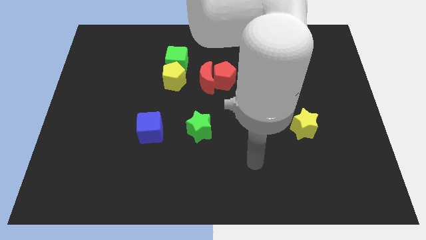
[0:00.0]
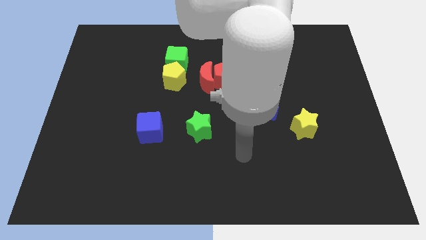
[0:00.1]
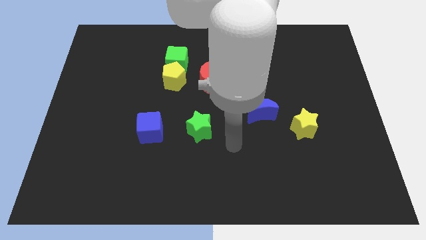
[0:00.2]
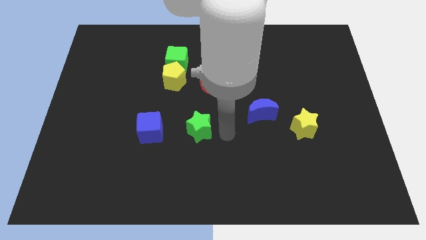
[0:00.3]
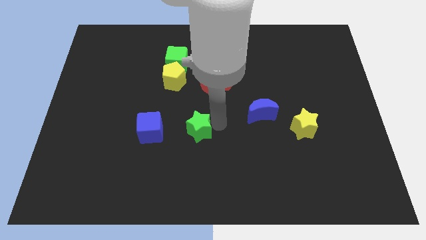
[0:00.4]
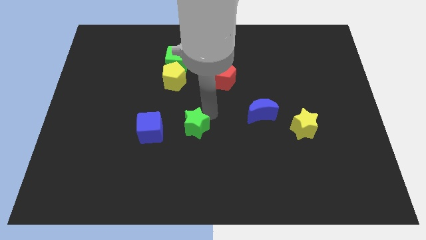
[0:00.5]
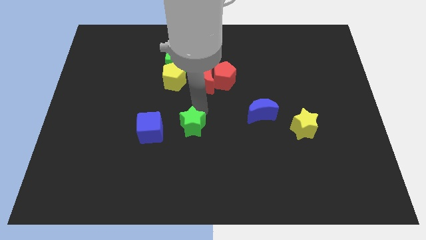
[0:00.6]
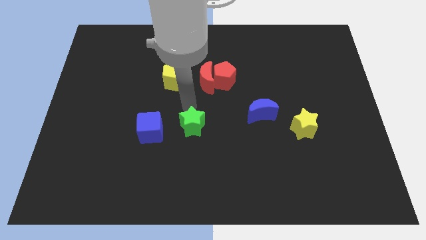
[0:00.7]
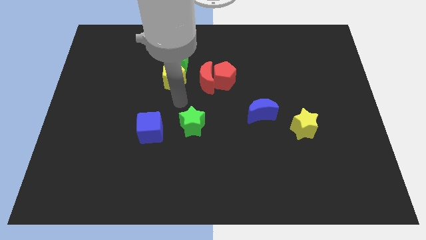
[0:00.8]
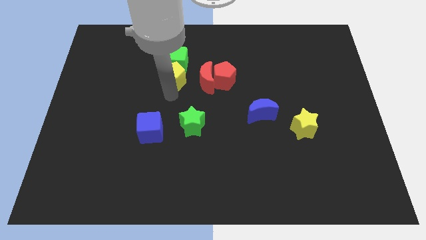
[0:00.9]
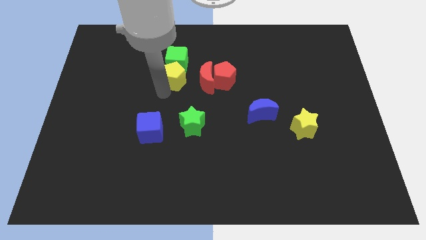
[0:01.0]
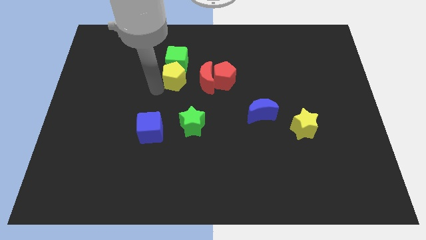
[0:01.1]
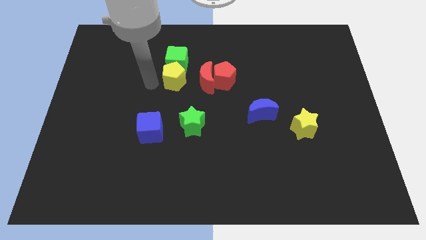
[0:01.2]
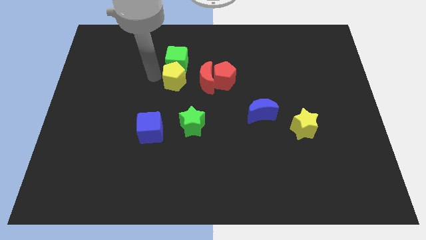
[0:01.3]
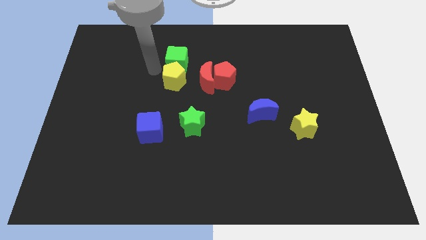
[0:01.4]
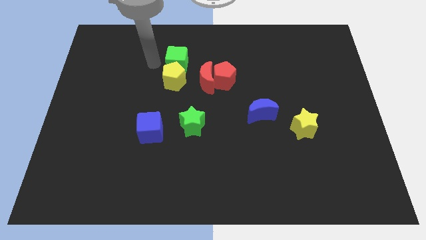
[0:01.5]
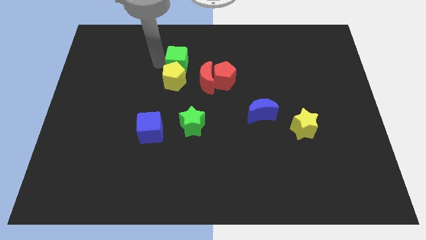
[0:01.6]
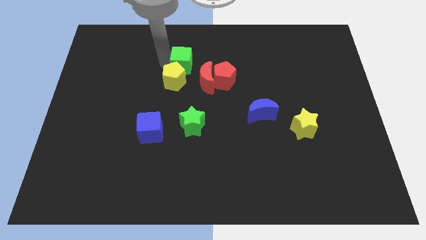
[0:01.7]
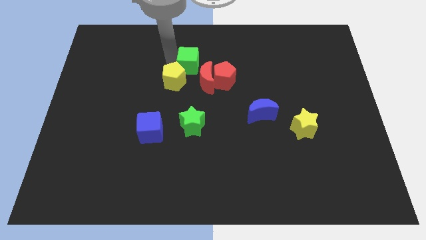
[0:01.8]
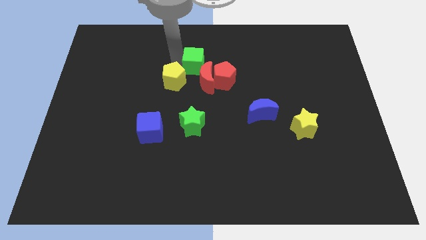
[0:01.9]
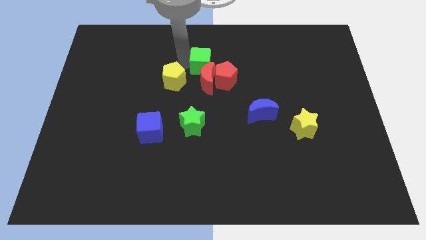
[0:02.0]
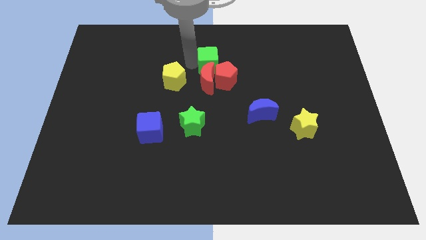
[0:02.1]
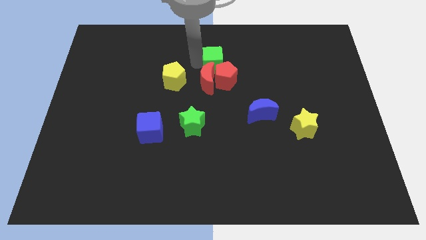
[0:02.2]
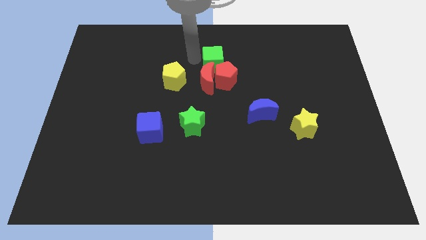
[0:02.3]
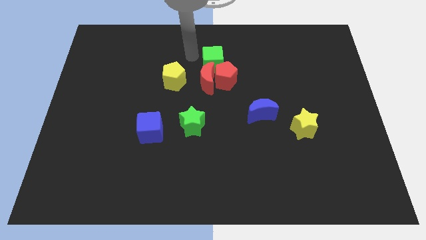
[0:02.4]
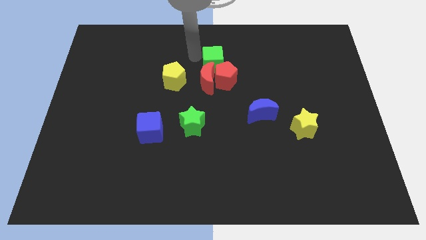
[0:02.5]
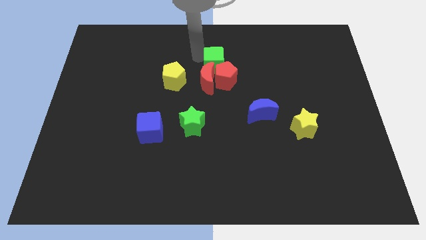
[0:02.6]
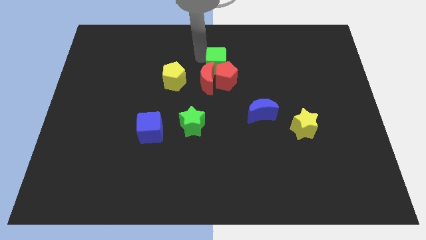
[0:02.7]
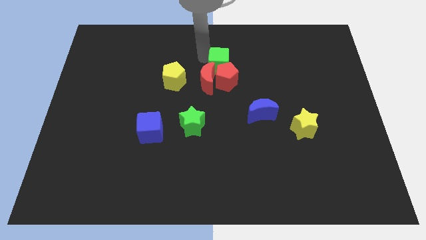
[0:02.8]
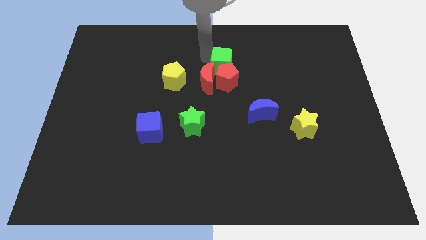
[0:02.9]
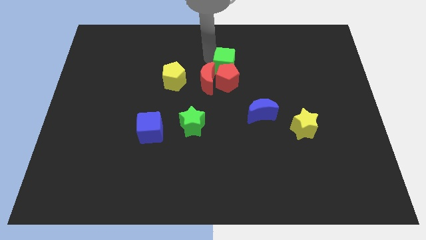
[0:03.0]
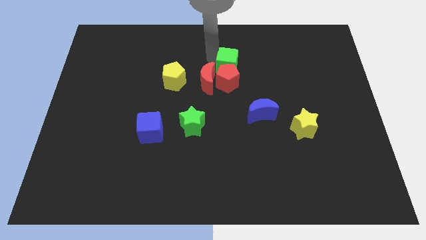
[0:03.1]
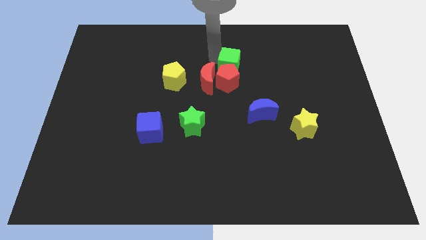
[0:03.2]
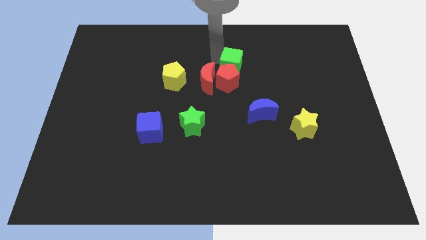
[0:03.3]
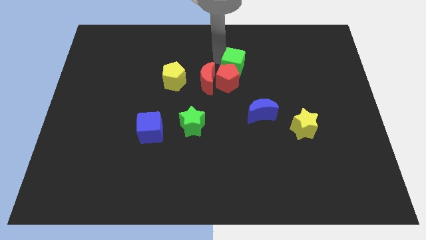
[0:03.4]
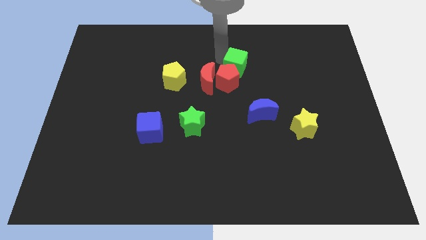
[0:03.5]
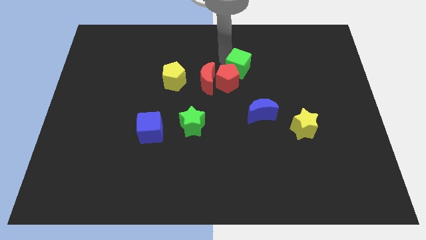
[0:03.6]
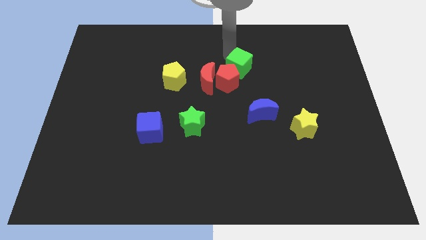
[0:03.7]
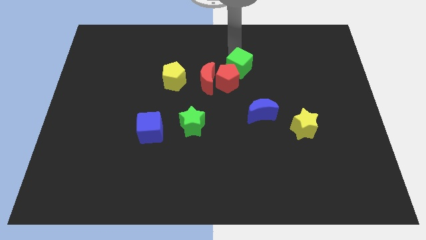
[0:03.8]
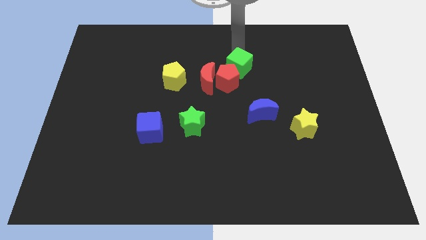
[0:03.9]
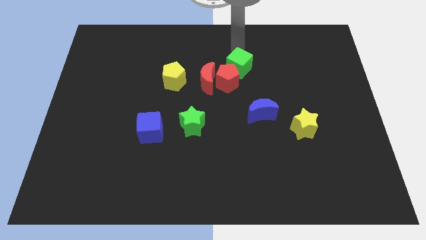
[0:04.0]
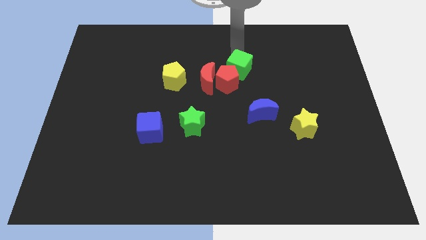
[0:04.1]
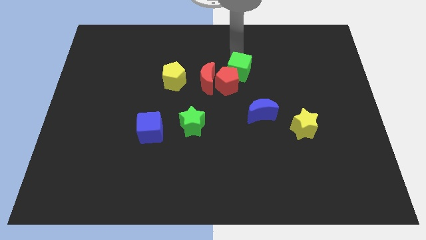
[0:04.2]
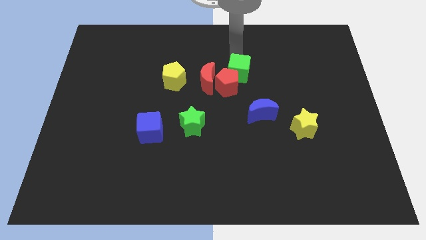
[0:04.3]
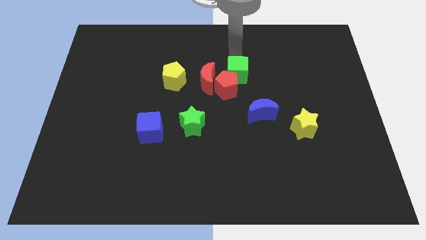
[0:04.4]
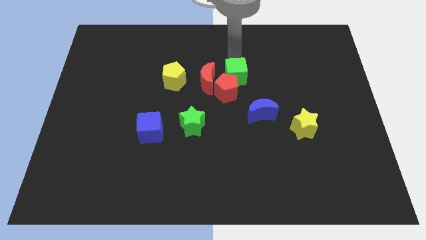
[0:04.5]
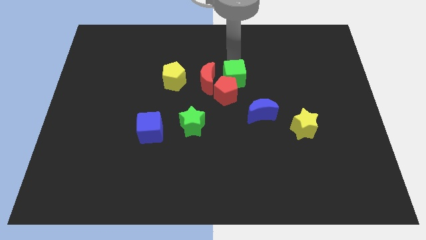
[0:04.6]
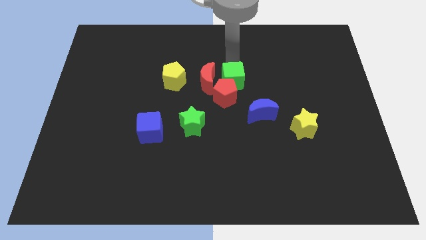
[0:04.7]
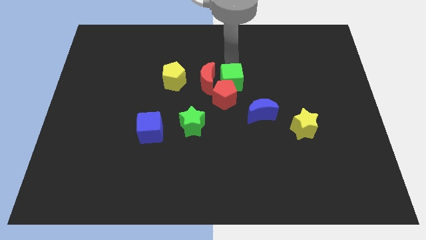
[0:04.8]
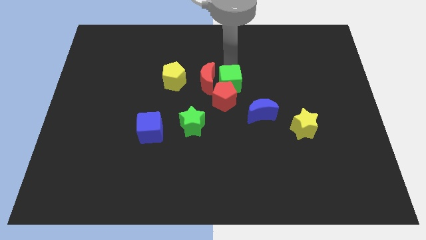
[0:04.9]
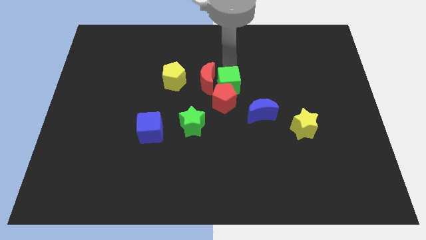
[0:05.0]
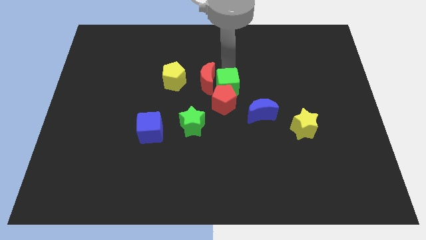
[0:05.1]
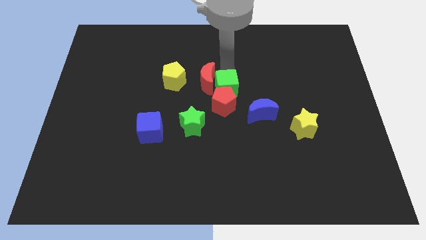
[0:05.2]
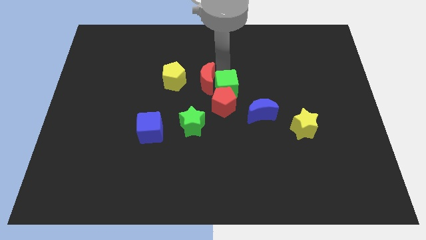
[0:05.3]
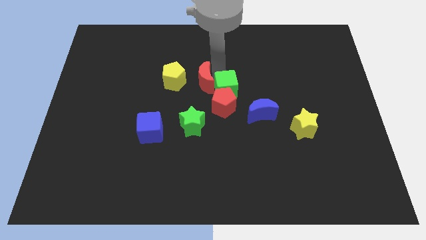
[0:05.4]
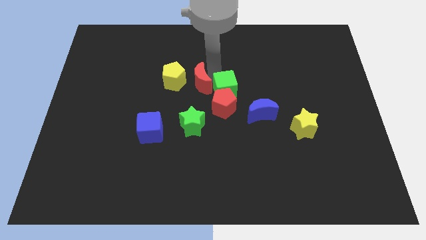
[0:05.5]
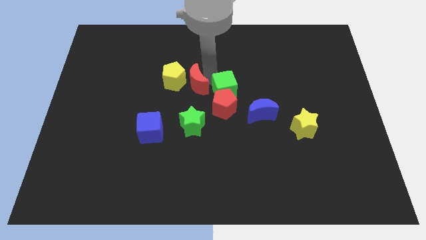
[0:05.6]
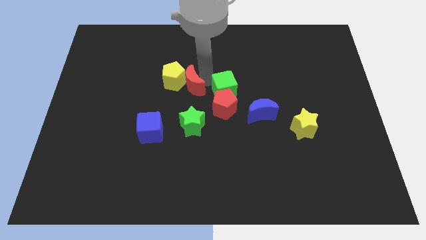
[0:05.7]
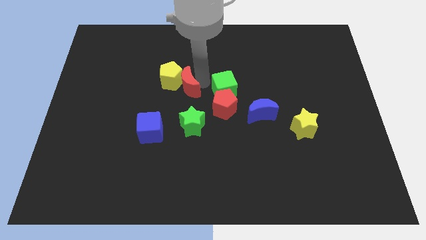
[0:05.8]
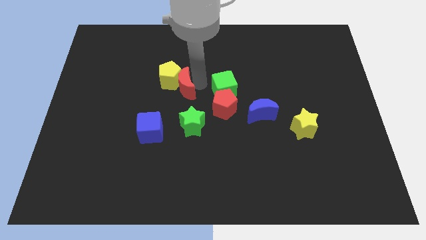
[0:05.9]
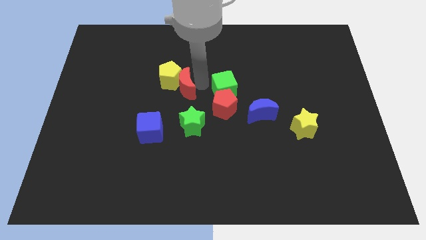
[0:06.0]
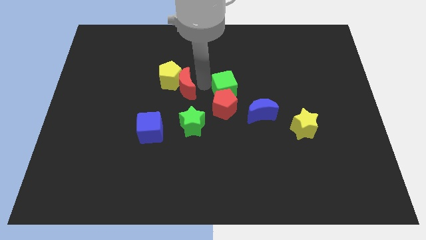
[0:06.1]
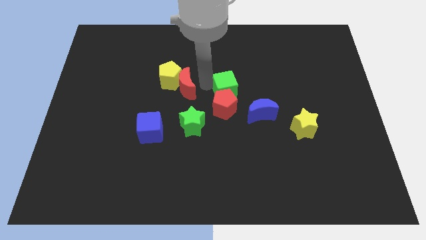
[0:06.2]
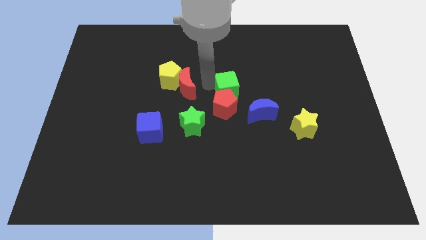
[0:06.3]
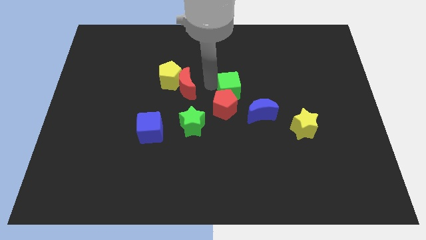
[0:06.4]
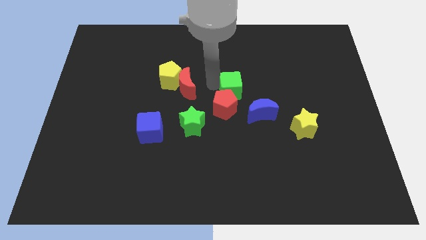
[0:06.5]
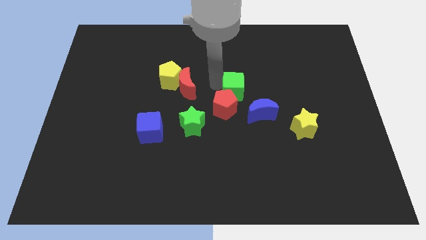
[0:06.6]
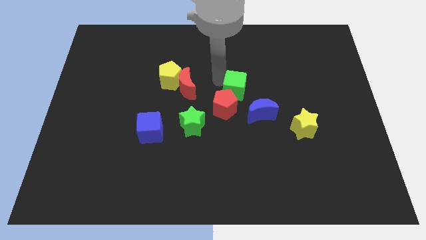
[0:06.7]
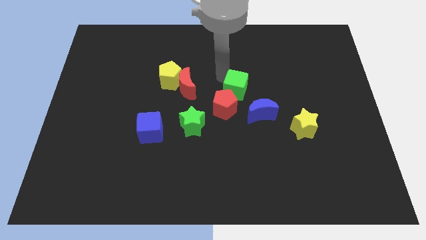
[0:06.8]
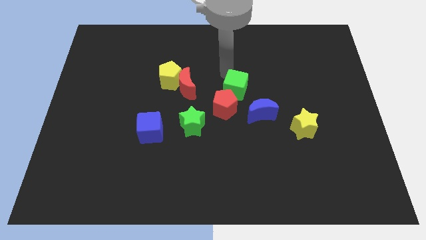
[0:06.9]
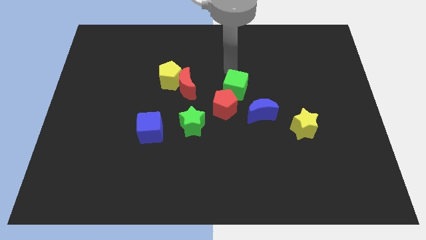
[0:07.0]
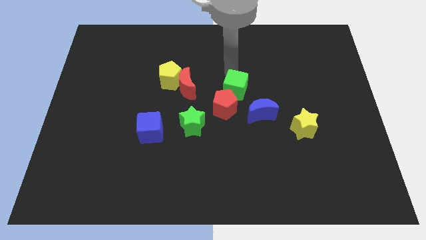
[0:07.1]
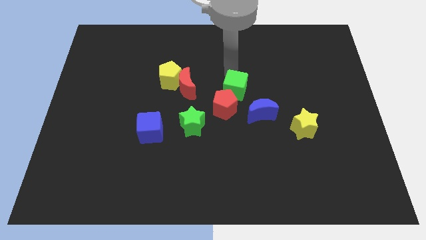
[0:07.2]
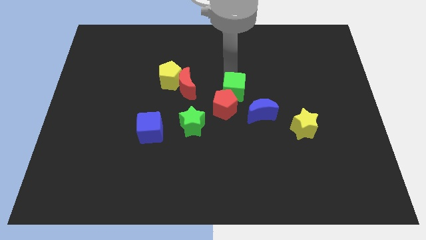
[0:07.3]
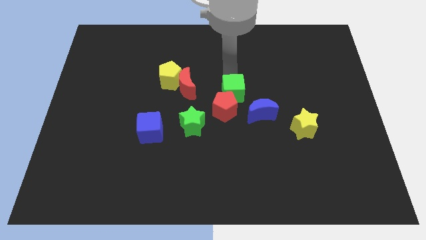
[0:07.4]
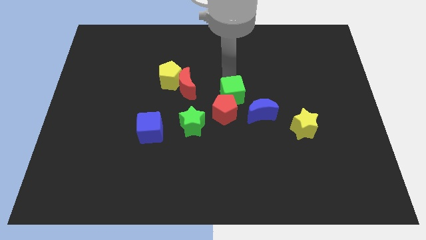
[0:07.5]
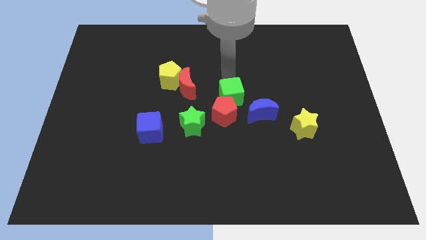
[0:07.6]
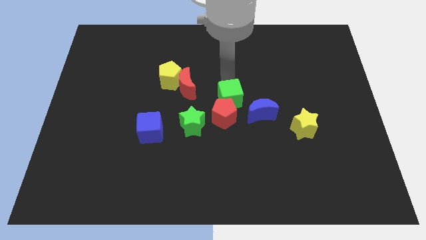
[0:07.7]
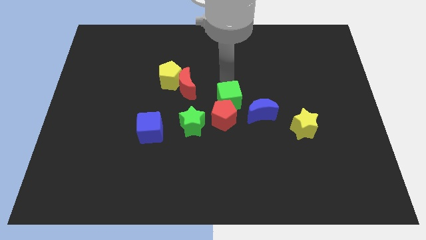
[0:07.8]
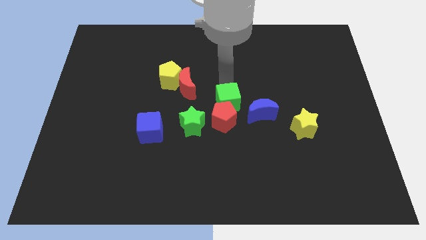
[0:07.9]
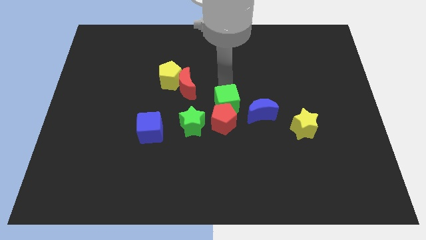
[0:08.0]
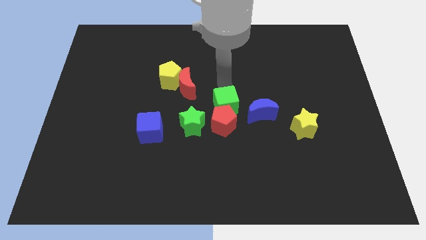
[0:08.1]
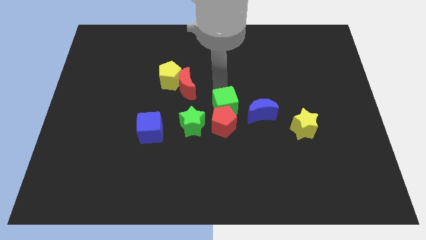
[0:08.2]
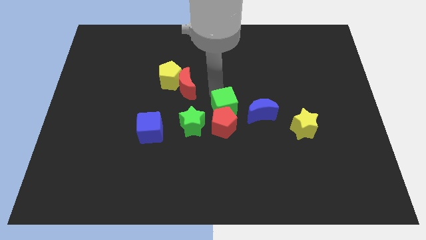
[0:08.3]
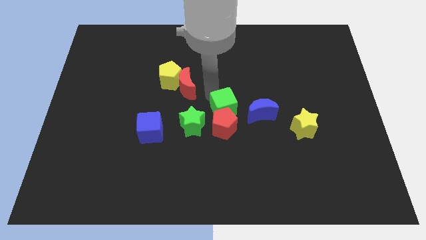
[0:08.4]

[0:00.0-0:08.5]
slide the green cube to the right side of the green star
